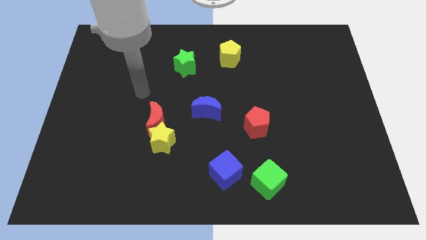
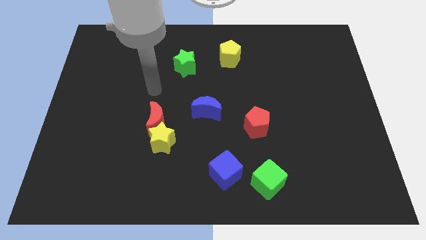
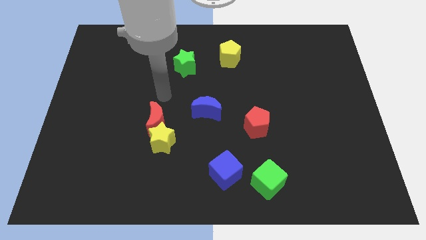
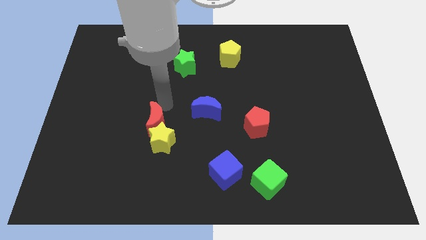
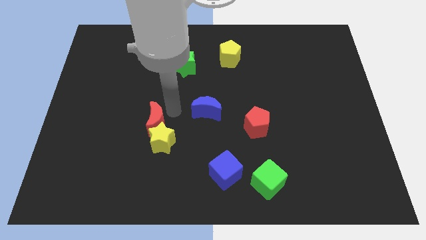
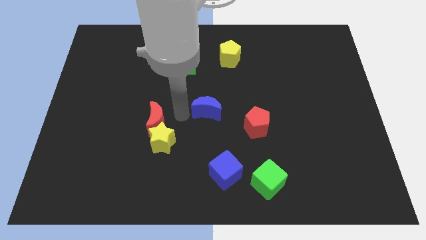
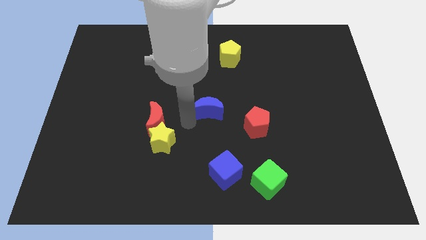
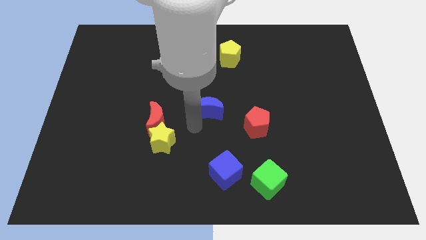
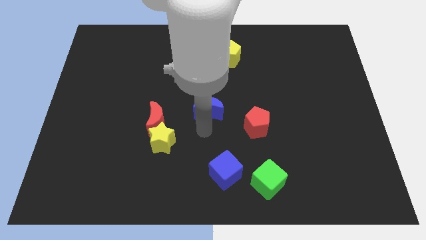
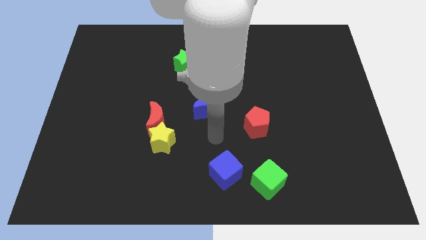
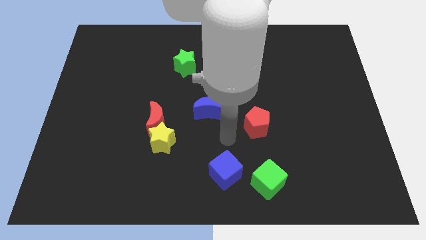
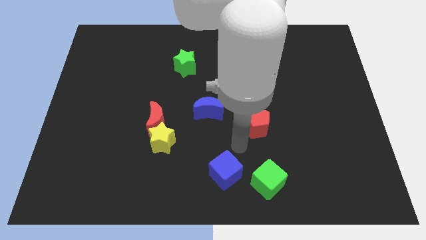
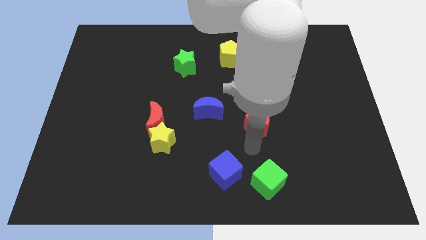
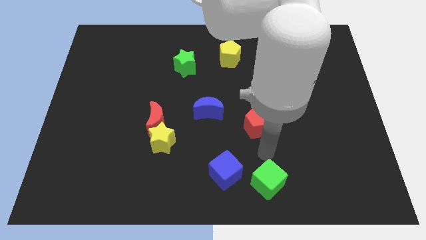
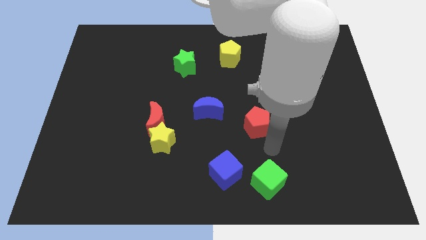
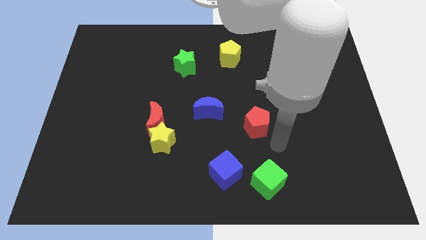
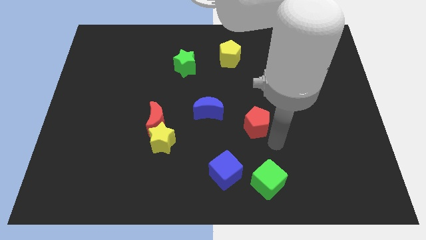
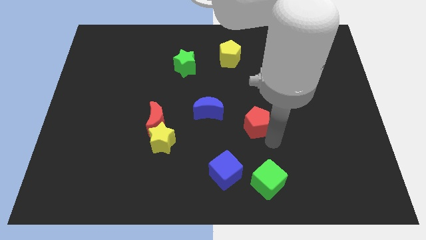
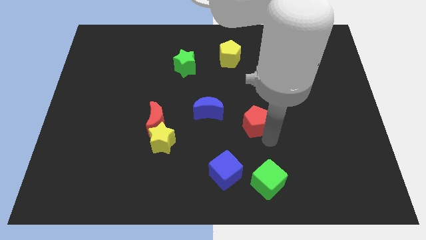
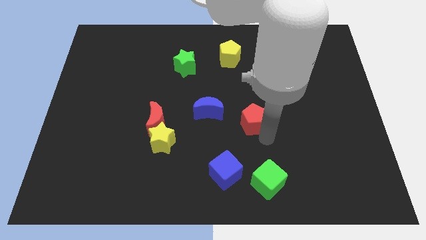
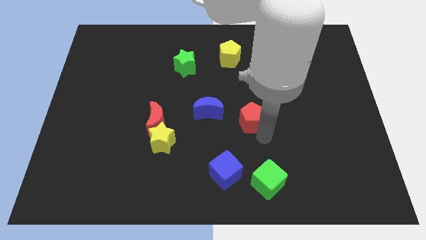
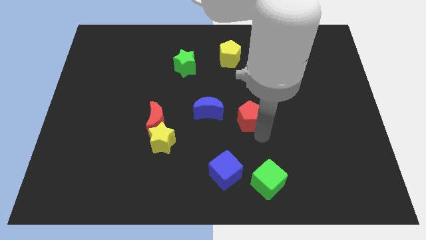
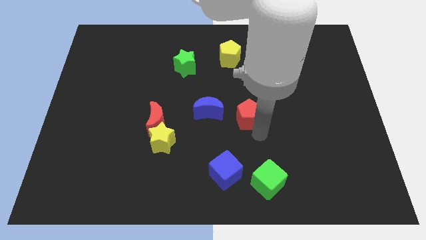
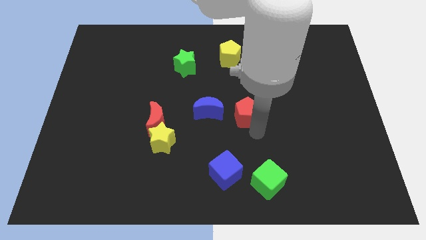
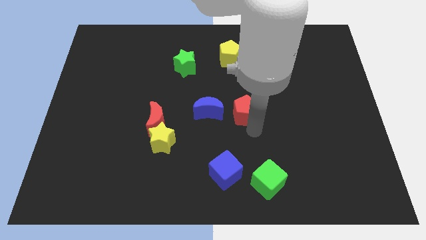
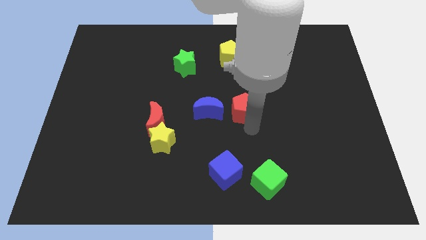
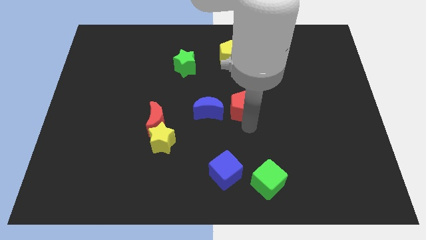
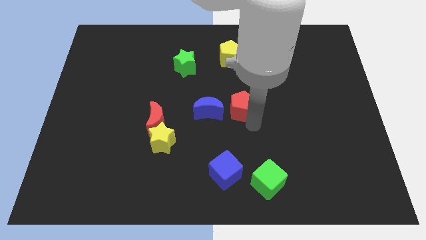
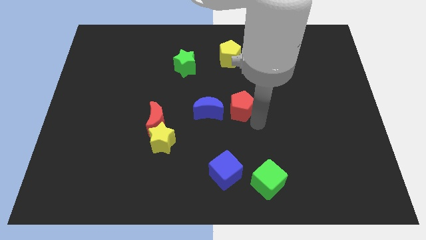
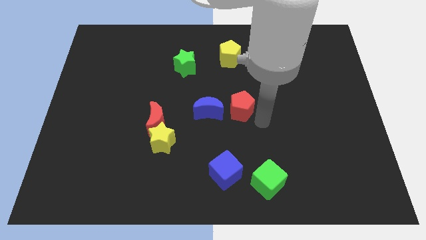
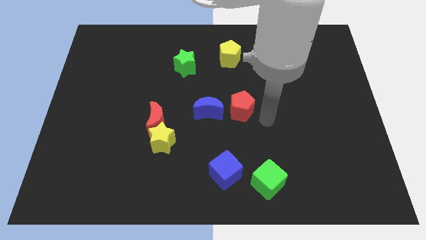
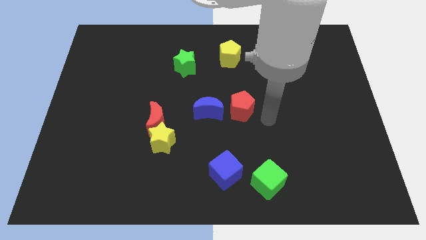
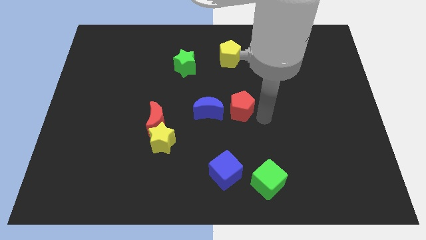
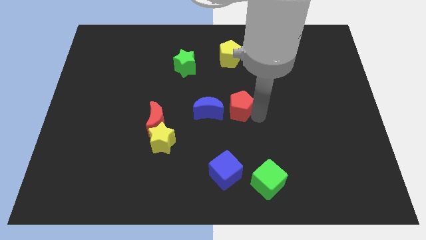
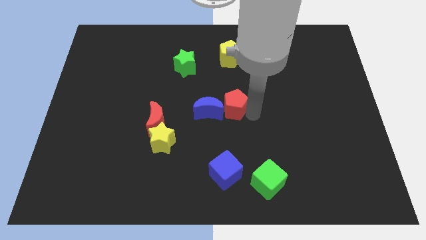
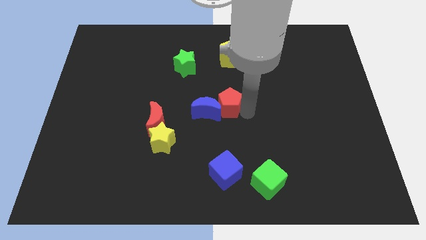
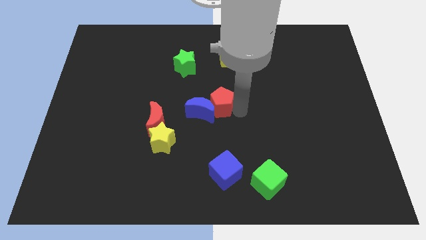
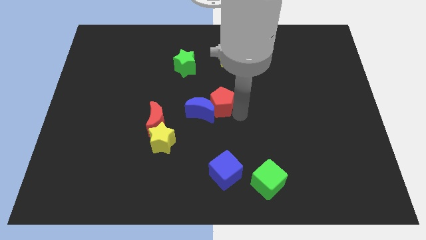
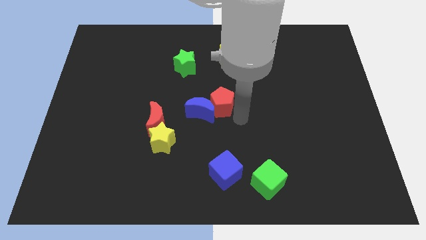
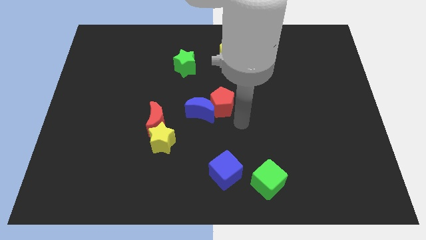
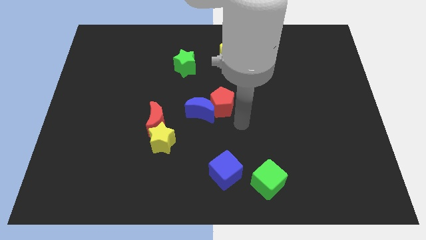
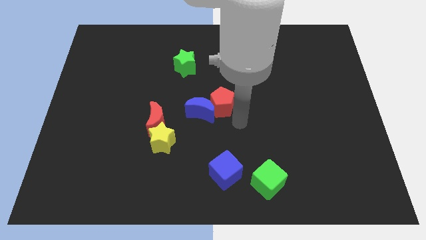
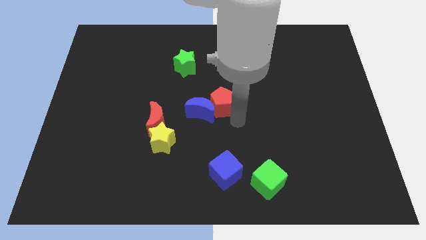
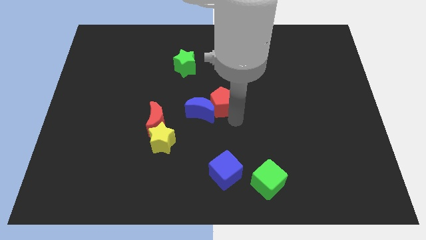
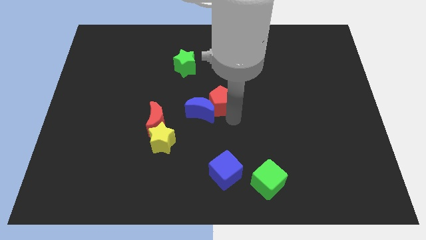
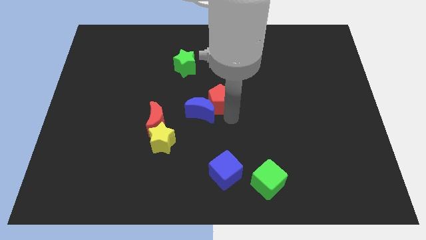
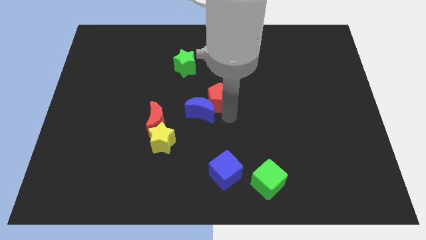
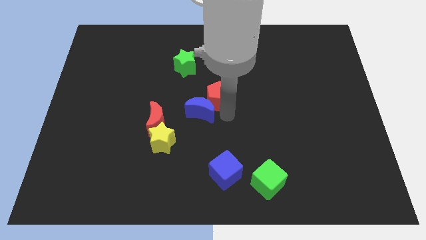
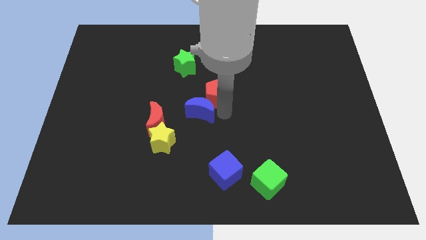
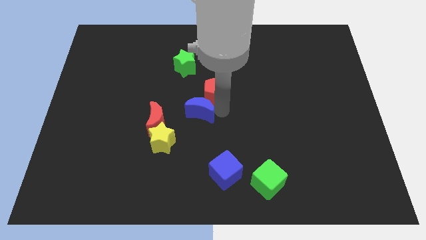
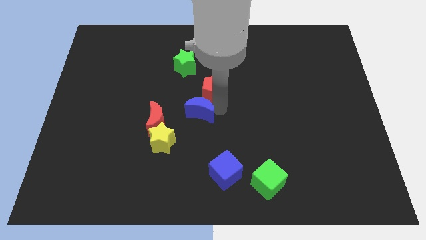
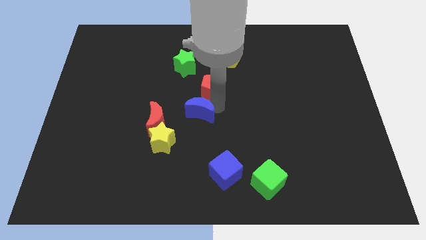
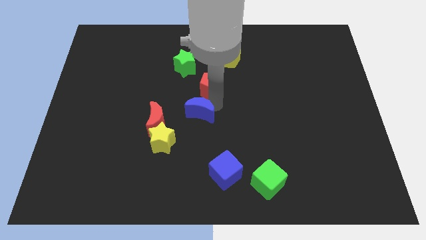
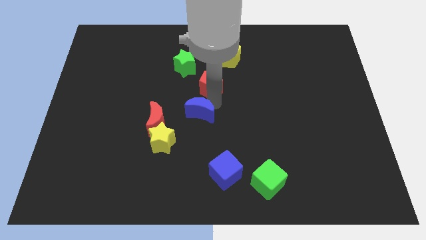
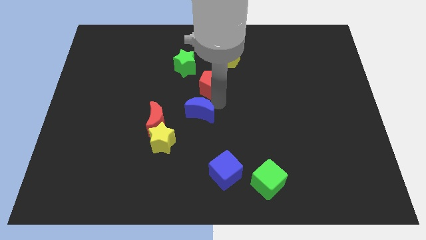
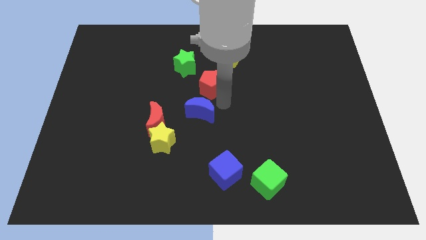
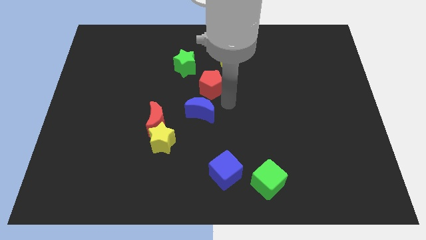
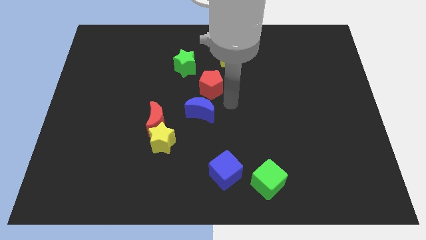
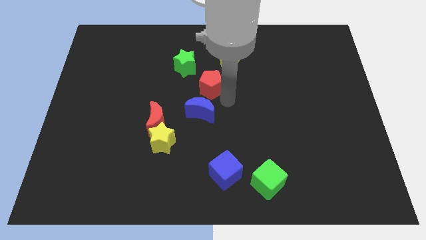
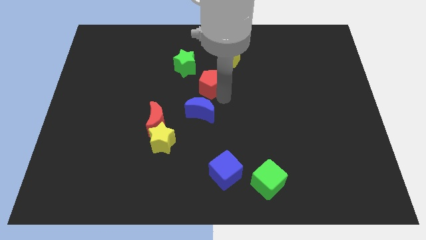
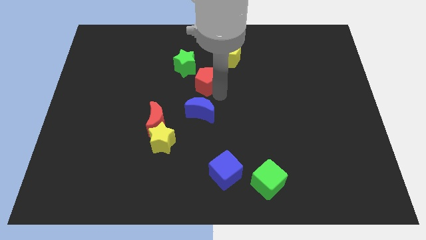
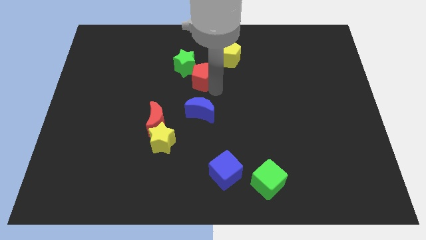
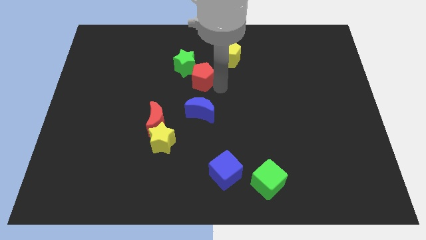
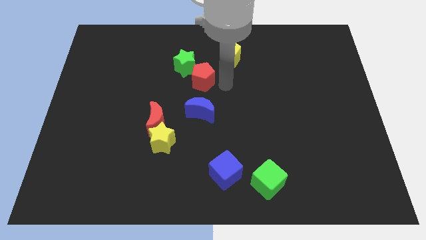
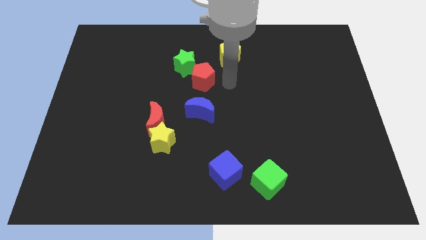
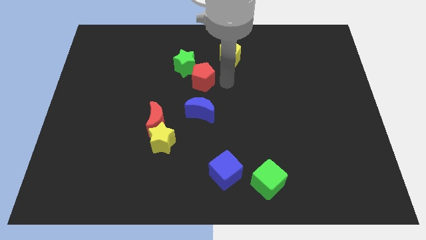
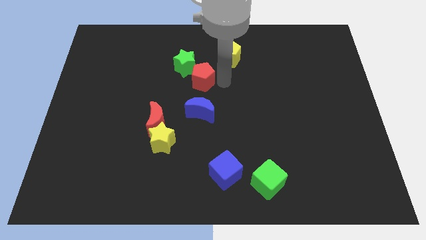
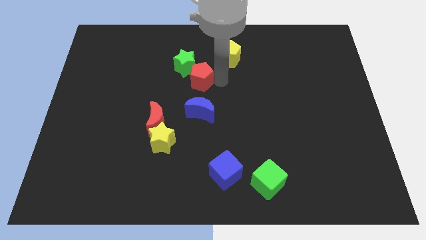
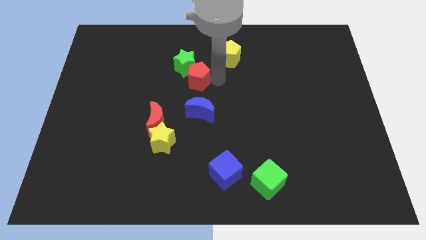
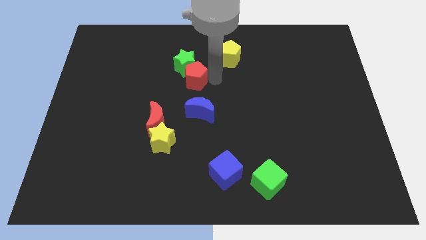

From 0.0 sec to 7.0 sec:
move the red pentagon diagonally upwards and to the left

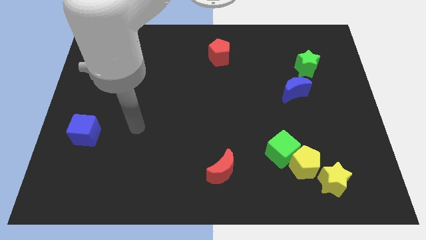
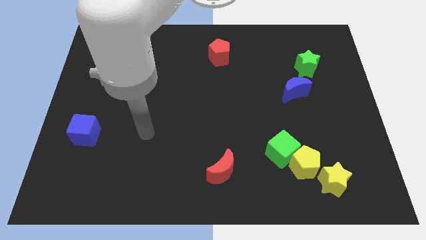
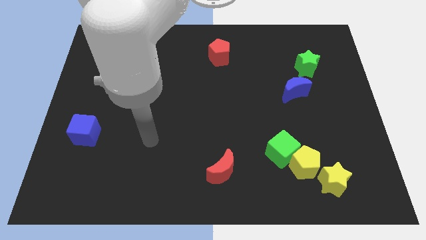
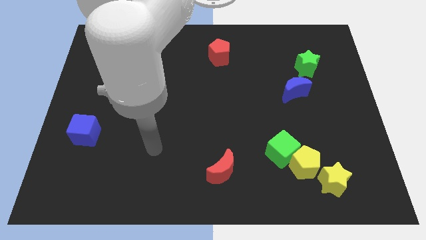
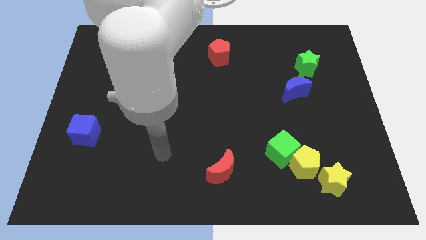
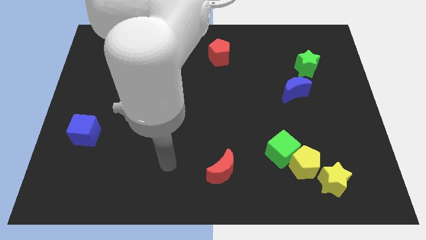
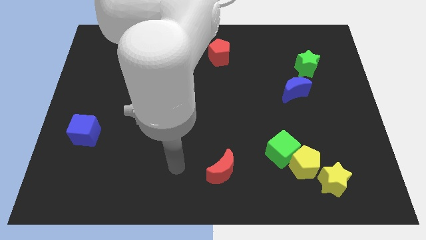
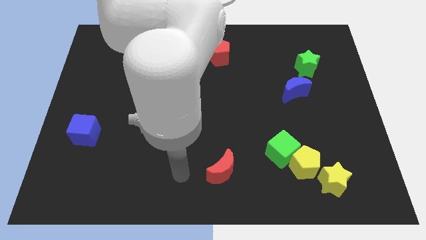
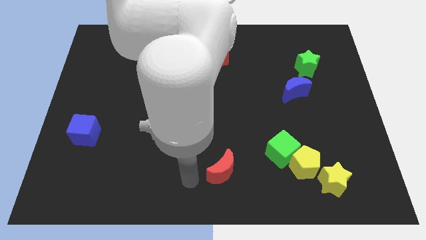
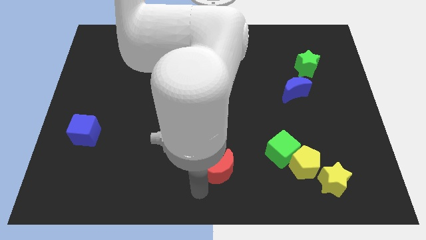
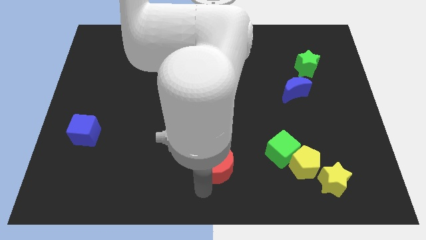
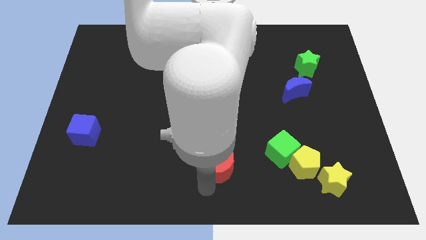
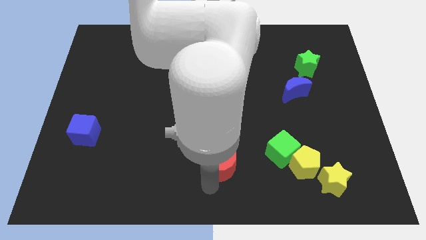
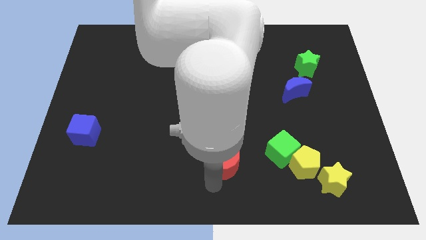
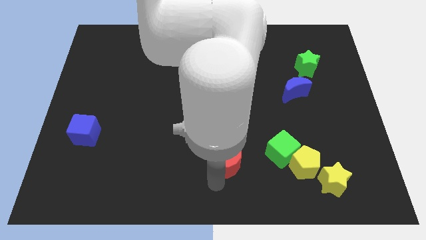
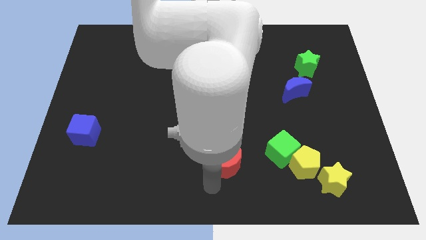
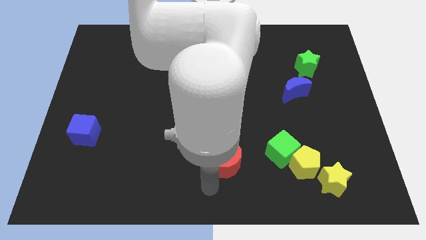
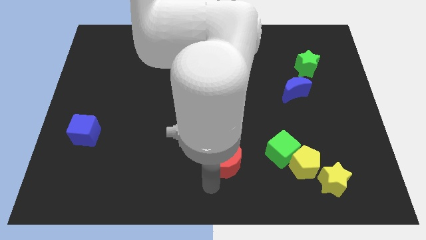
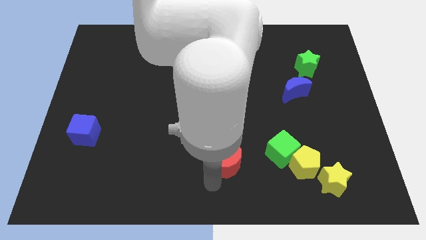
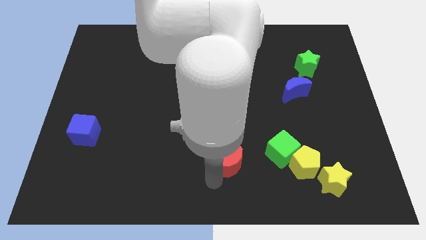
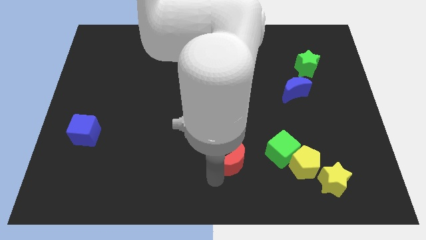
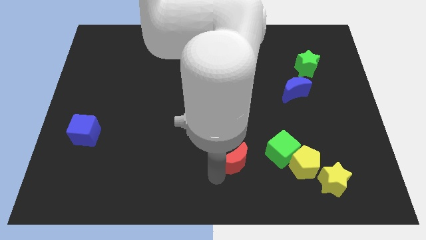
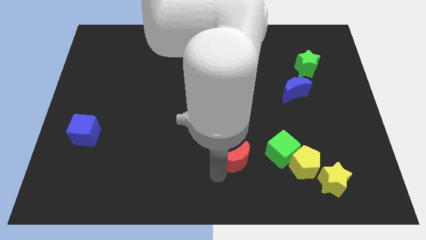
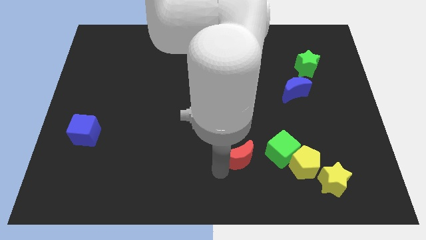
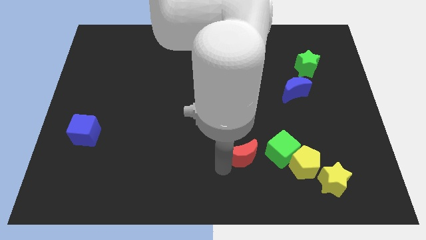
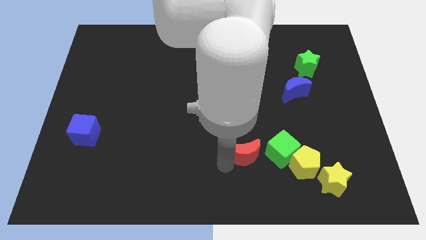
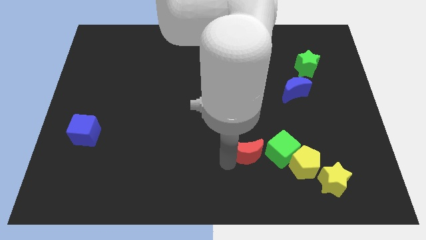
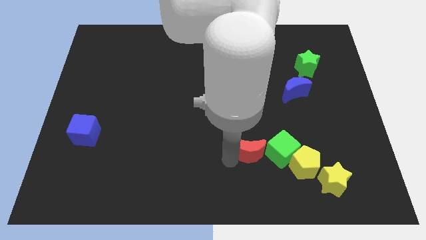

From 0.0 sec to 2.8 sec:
slightly slide the red moon diagonally up and right
